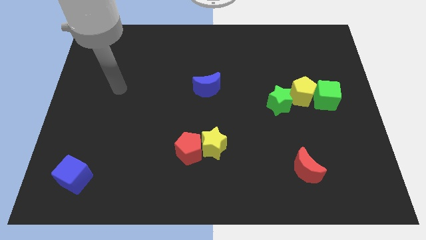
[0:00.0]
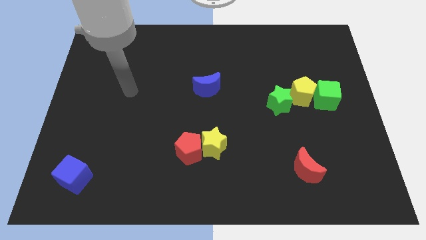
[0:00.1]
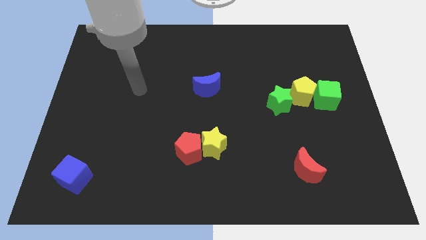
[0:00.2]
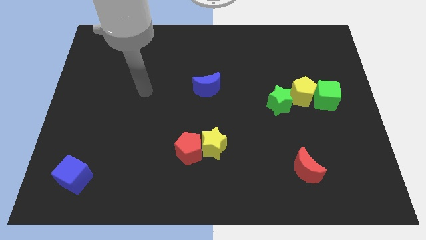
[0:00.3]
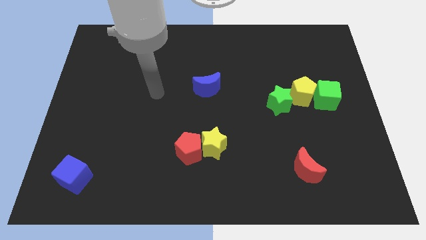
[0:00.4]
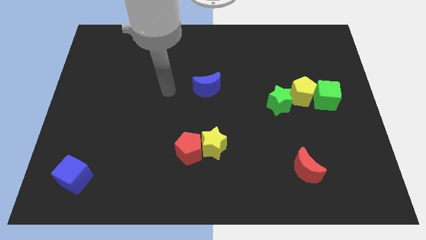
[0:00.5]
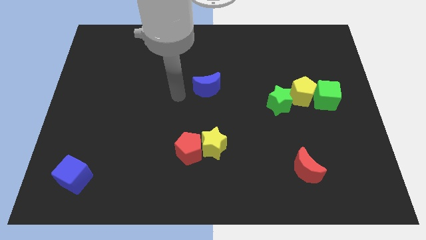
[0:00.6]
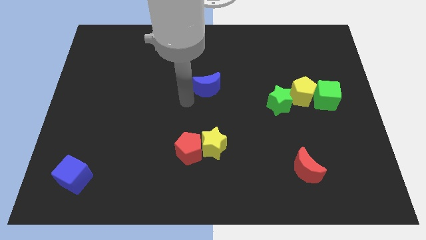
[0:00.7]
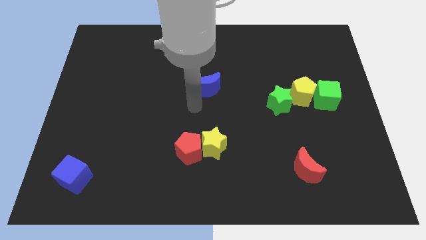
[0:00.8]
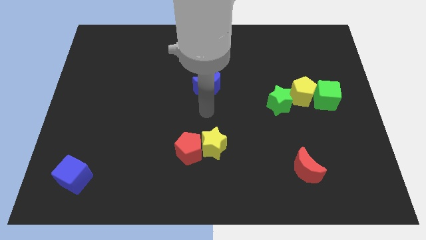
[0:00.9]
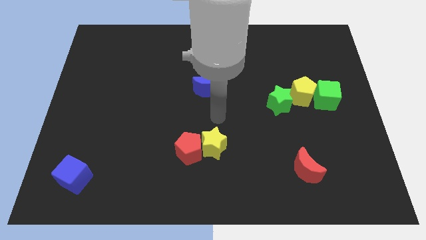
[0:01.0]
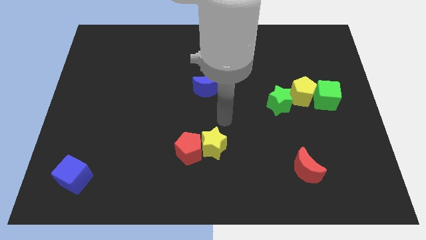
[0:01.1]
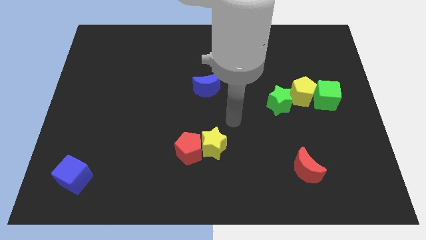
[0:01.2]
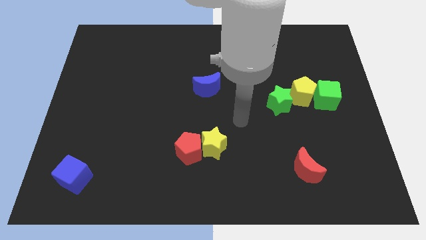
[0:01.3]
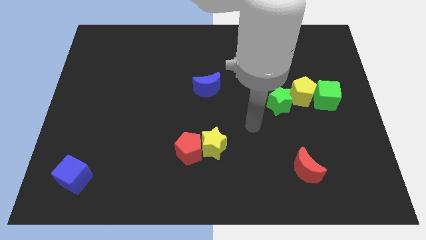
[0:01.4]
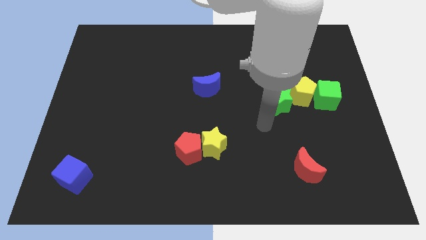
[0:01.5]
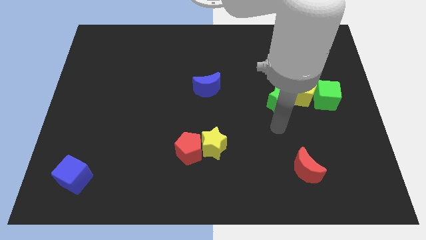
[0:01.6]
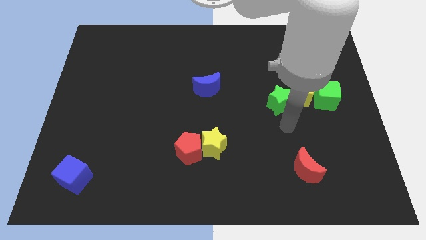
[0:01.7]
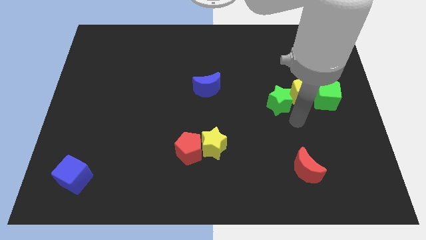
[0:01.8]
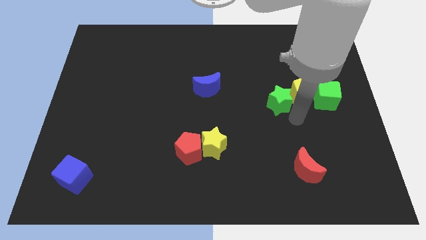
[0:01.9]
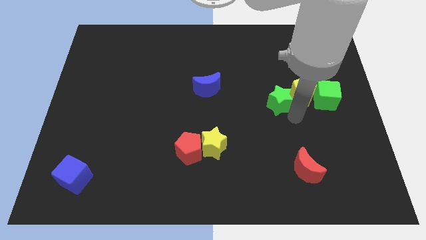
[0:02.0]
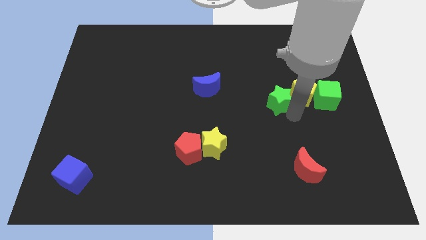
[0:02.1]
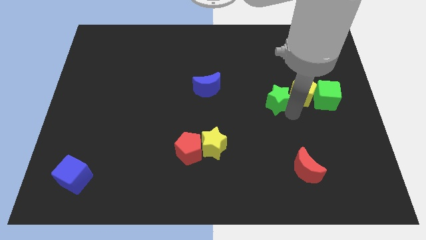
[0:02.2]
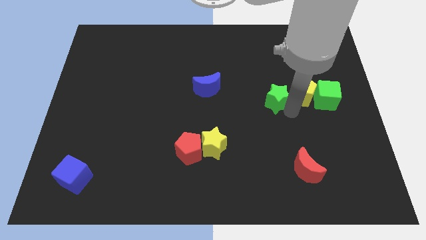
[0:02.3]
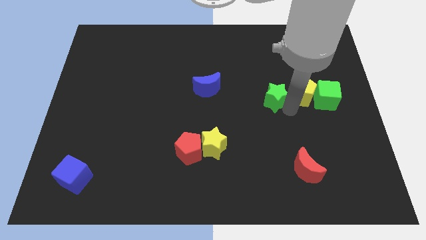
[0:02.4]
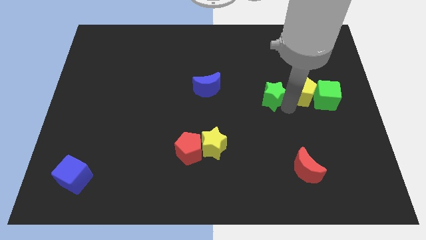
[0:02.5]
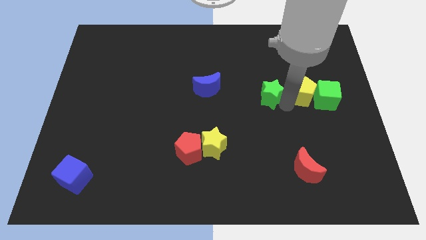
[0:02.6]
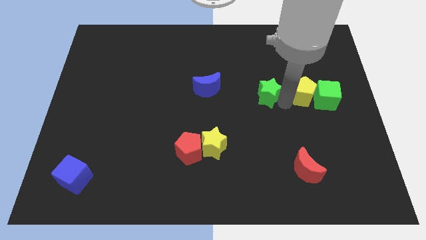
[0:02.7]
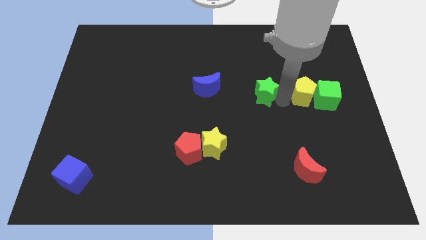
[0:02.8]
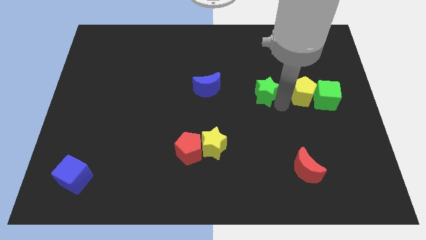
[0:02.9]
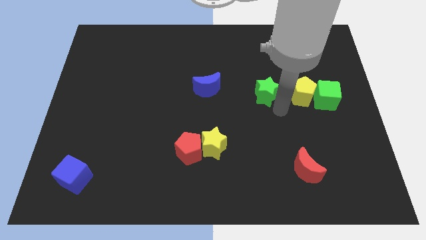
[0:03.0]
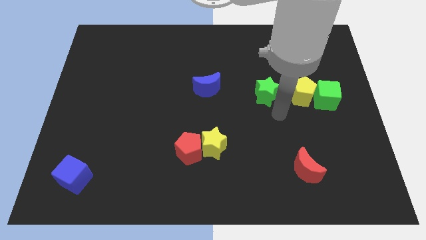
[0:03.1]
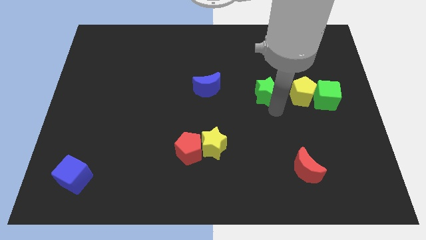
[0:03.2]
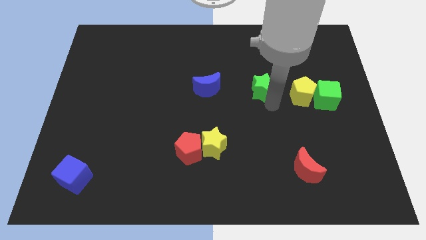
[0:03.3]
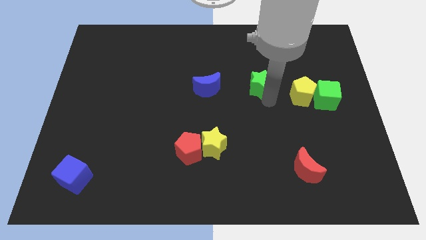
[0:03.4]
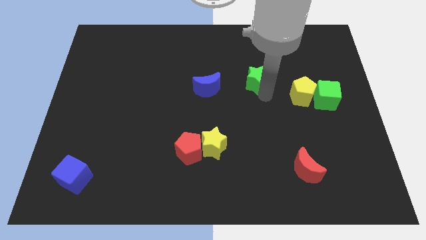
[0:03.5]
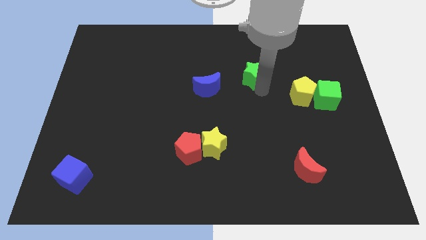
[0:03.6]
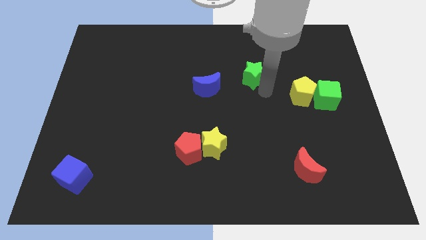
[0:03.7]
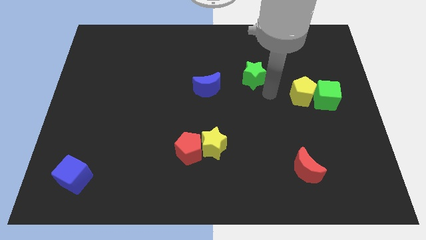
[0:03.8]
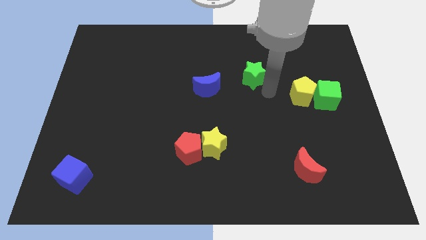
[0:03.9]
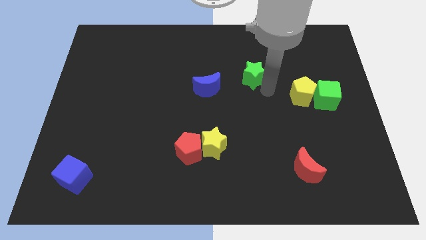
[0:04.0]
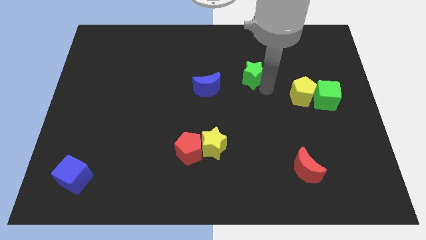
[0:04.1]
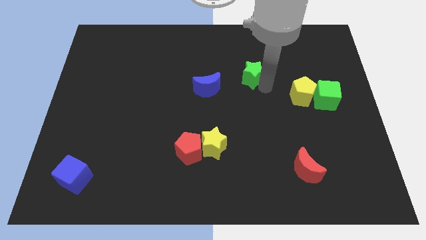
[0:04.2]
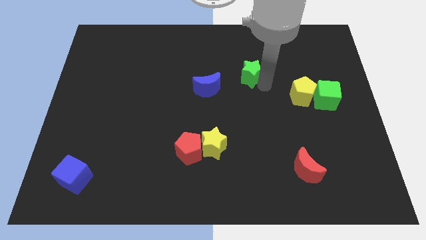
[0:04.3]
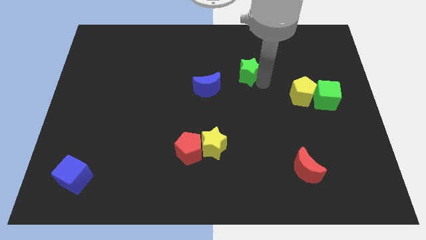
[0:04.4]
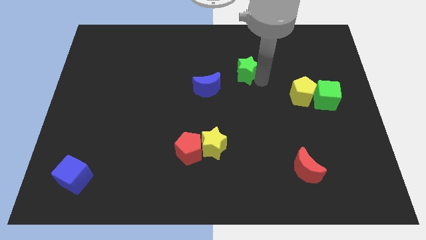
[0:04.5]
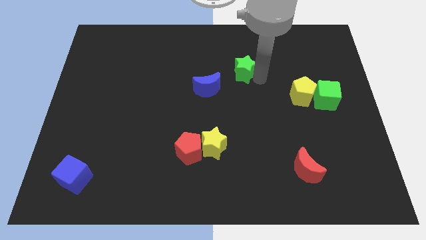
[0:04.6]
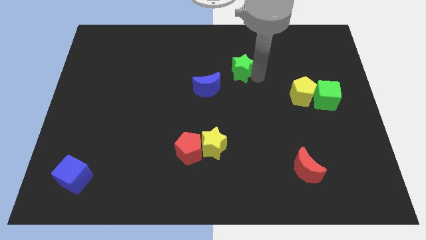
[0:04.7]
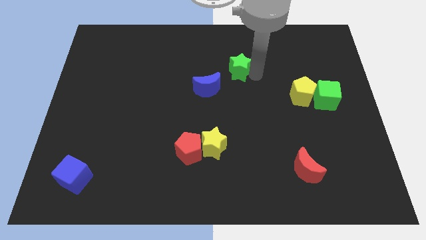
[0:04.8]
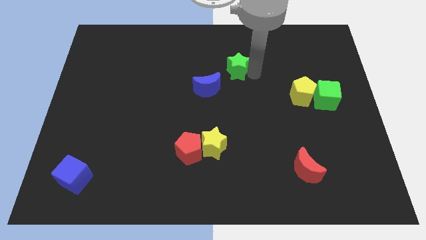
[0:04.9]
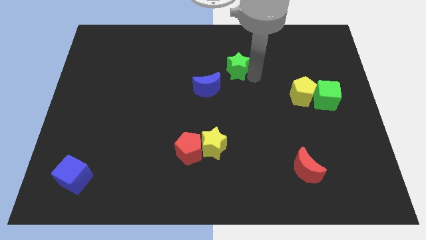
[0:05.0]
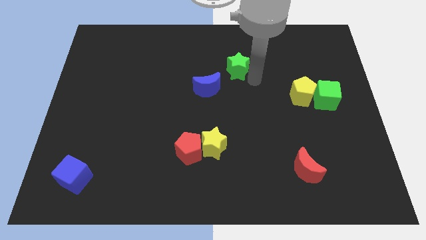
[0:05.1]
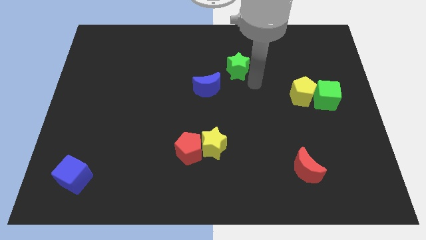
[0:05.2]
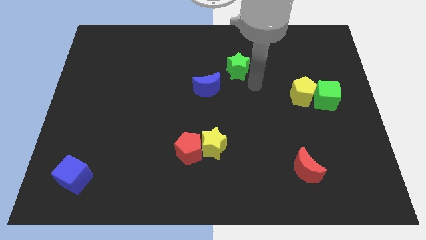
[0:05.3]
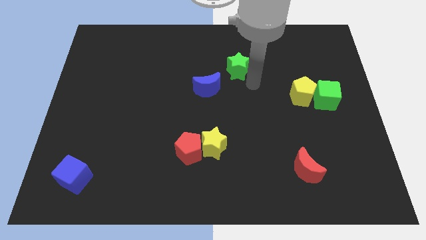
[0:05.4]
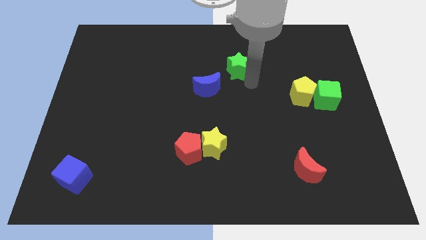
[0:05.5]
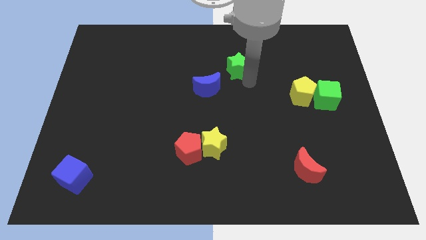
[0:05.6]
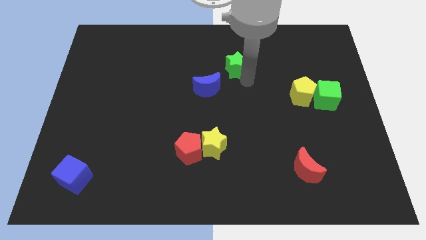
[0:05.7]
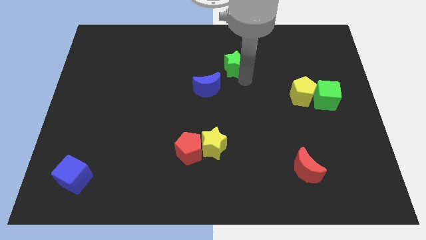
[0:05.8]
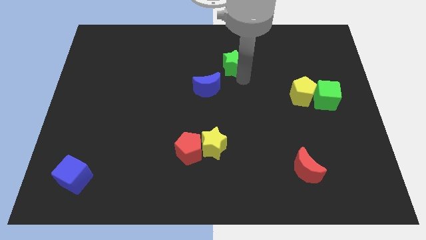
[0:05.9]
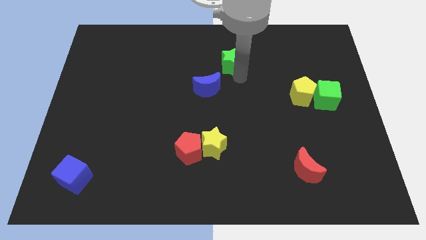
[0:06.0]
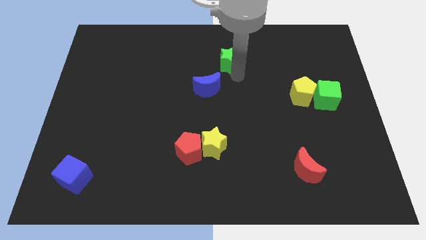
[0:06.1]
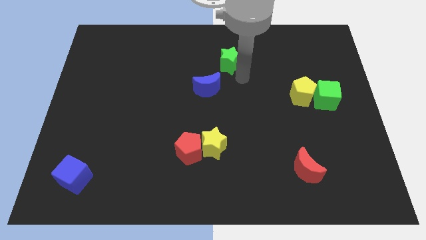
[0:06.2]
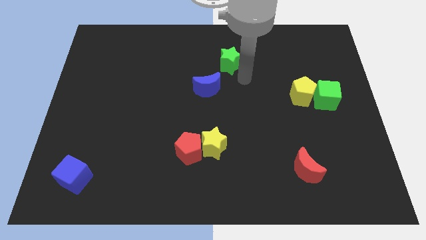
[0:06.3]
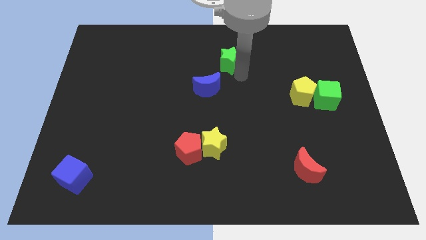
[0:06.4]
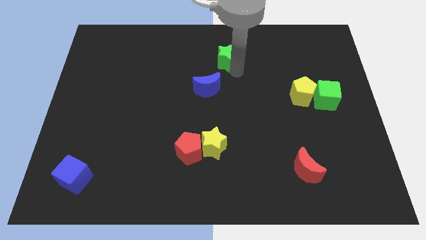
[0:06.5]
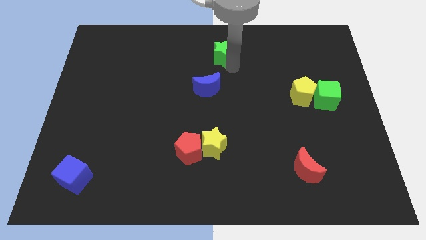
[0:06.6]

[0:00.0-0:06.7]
slide the green star to the top side

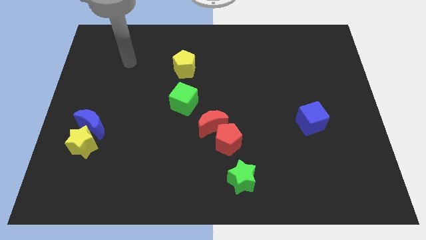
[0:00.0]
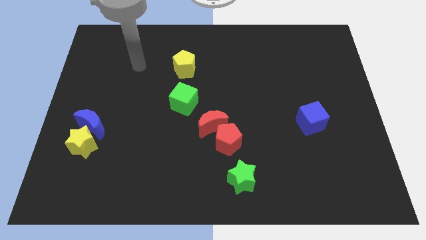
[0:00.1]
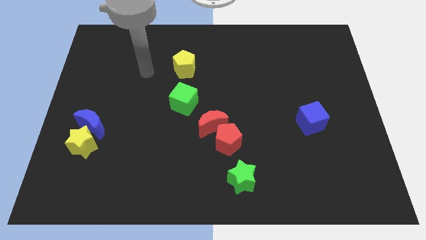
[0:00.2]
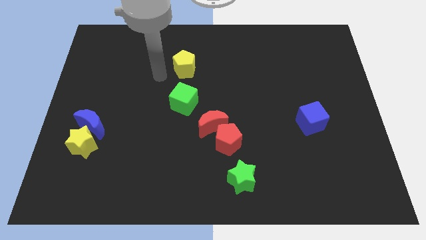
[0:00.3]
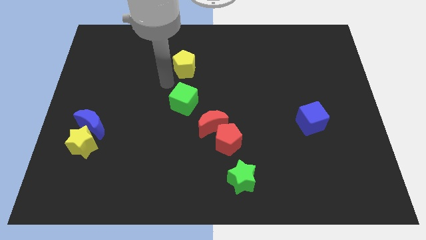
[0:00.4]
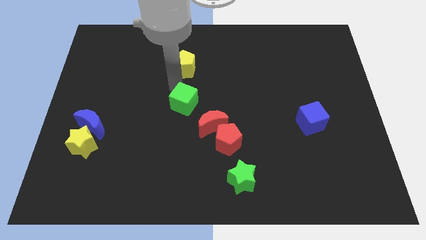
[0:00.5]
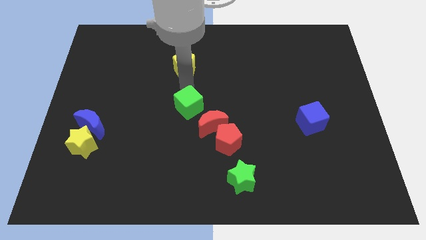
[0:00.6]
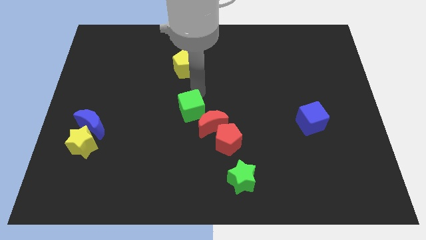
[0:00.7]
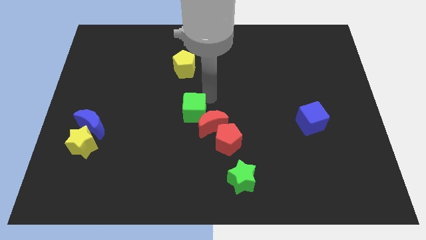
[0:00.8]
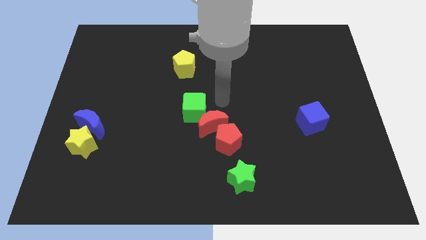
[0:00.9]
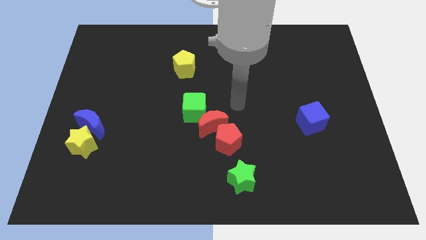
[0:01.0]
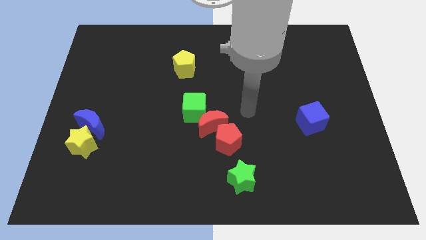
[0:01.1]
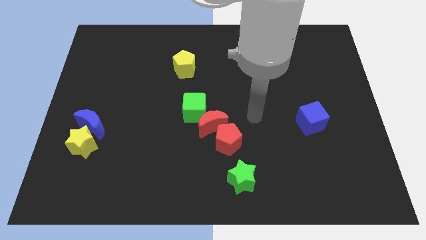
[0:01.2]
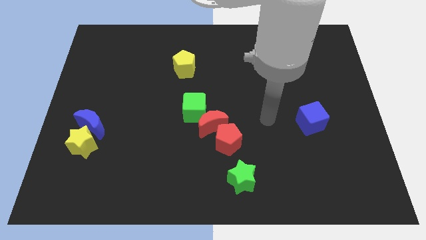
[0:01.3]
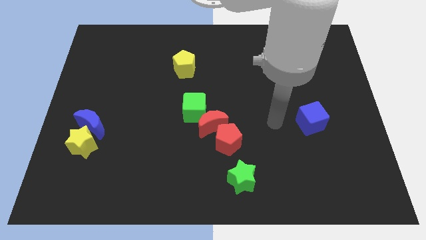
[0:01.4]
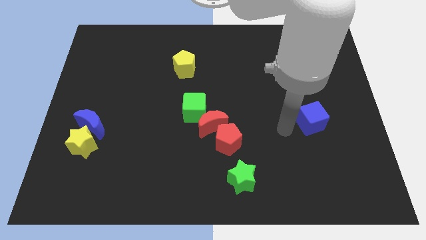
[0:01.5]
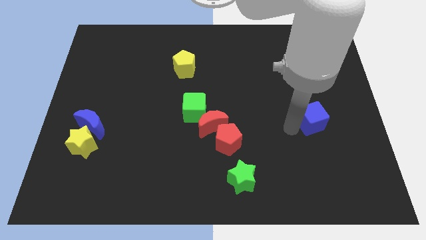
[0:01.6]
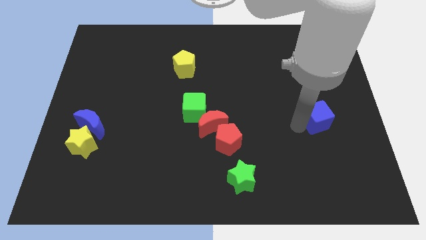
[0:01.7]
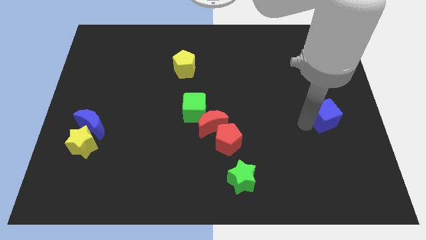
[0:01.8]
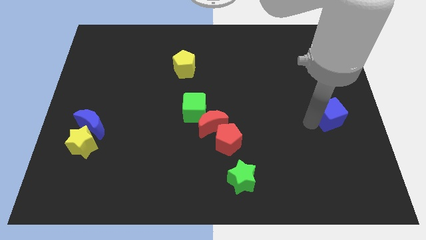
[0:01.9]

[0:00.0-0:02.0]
push the blue cube to the right side
